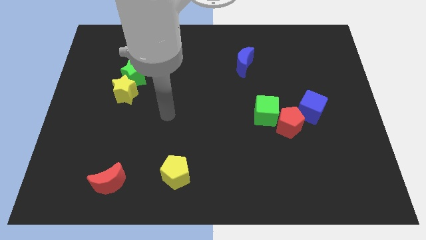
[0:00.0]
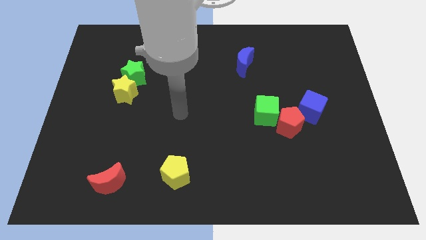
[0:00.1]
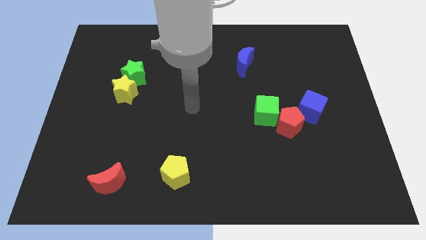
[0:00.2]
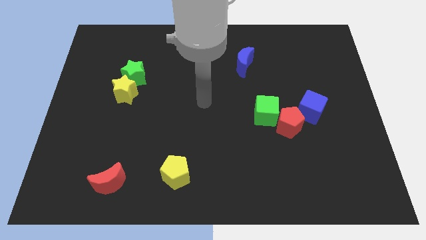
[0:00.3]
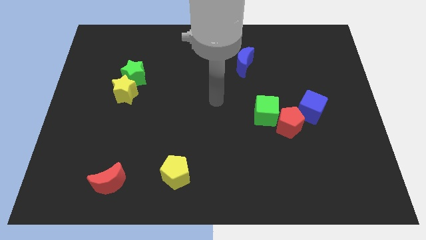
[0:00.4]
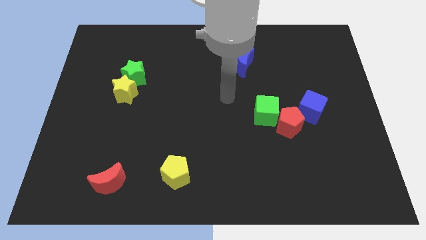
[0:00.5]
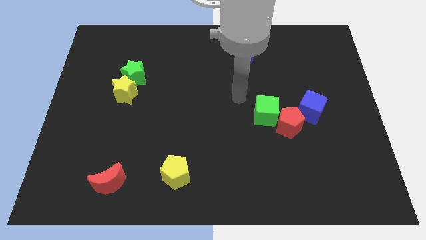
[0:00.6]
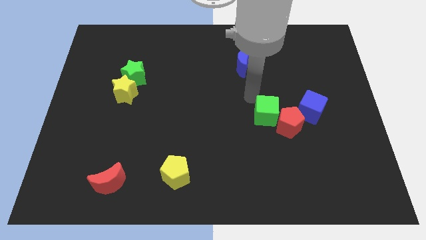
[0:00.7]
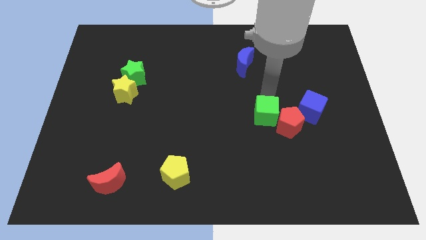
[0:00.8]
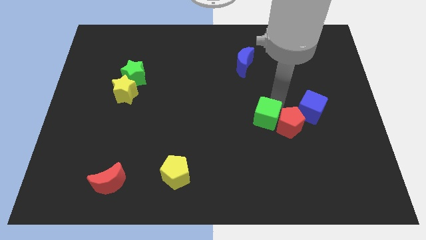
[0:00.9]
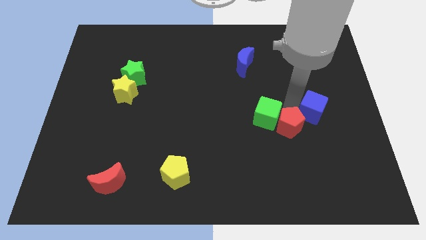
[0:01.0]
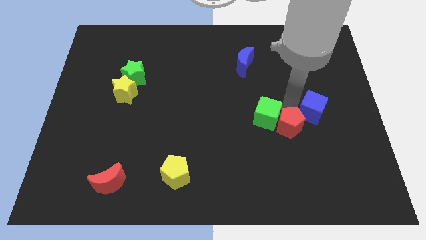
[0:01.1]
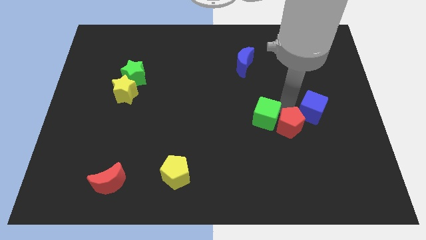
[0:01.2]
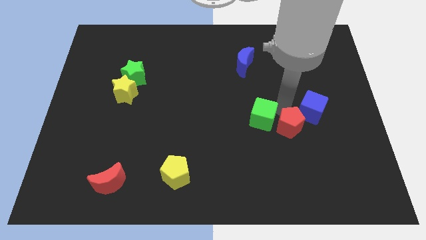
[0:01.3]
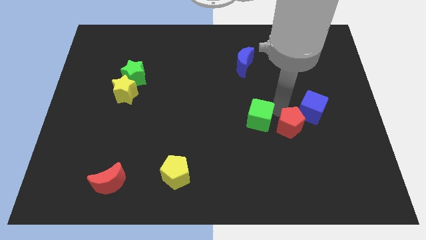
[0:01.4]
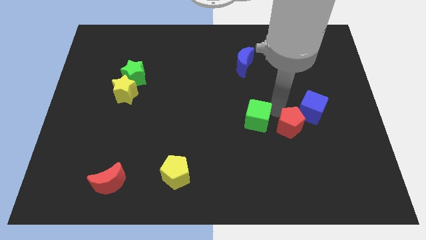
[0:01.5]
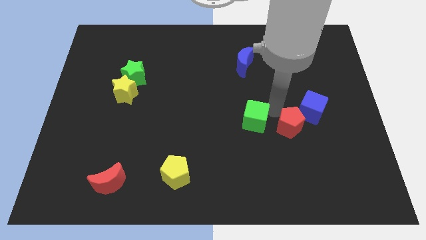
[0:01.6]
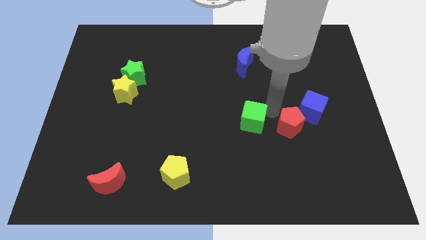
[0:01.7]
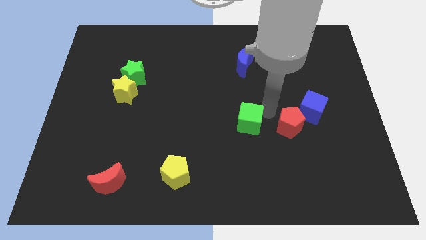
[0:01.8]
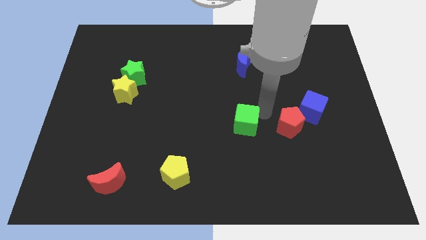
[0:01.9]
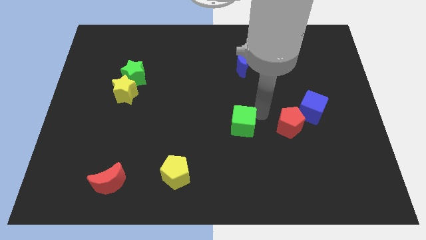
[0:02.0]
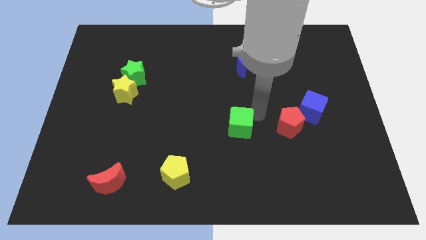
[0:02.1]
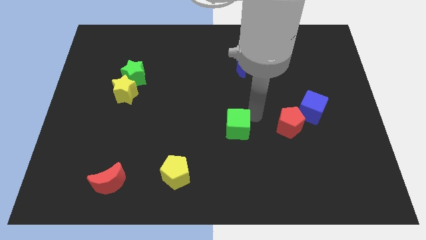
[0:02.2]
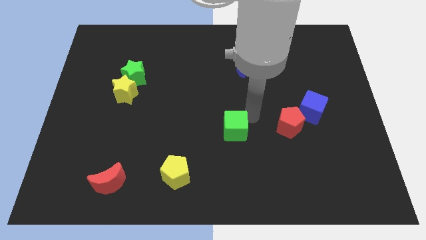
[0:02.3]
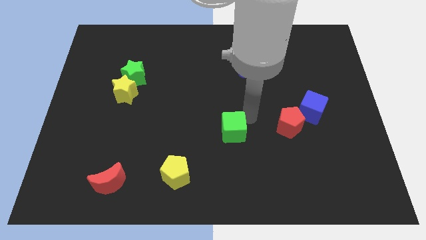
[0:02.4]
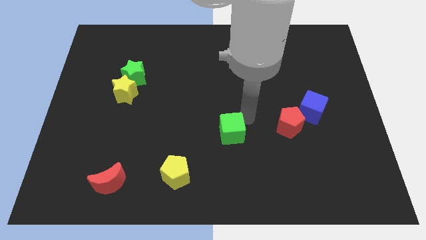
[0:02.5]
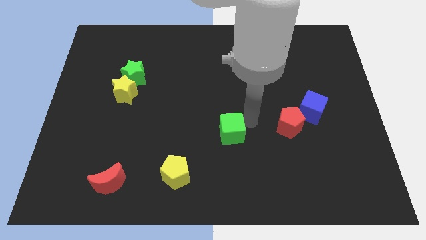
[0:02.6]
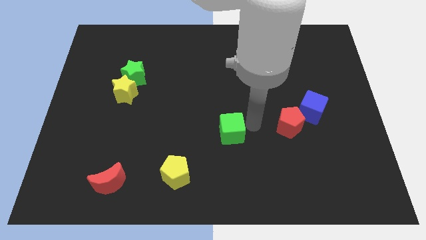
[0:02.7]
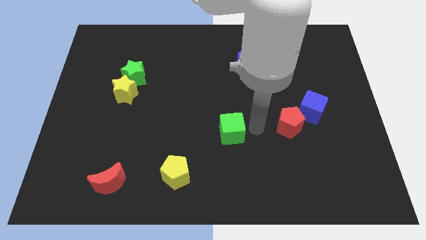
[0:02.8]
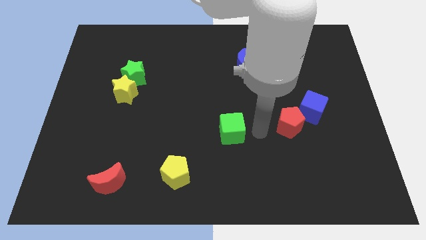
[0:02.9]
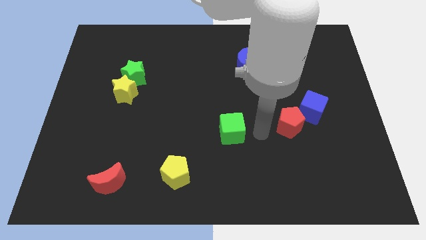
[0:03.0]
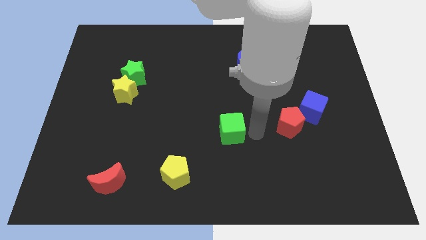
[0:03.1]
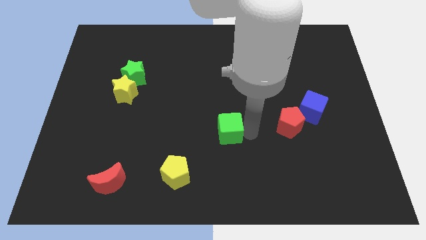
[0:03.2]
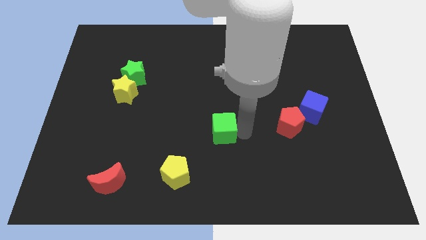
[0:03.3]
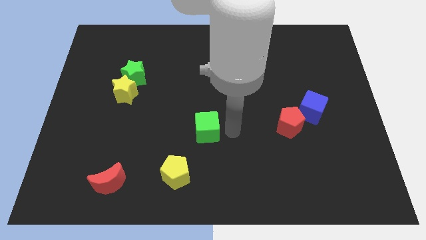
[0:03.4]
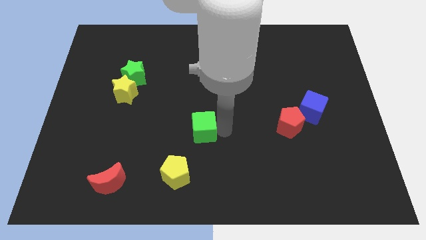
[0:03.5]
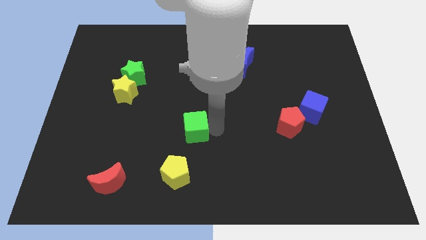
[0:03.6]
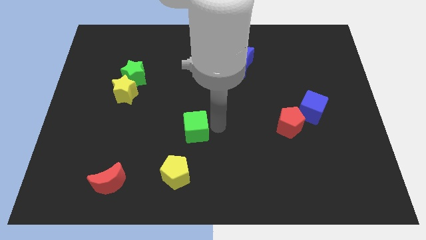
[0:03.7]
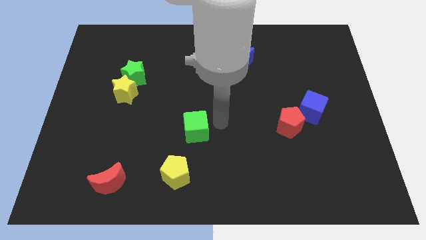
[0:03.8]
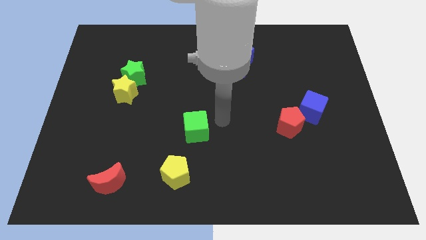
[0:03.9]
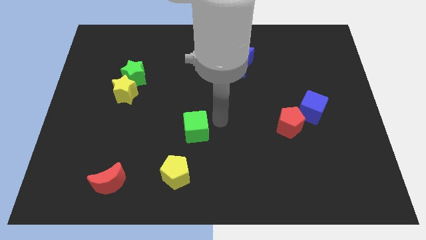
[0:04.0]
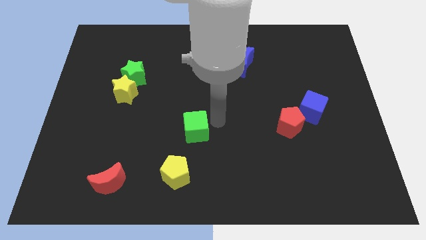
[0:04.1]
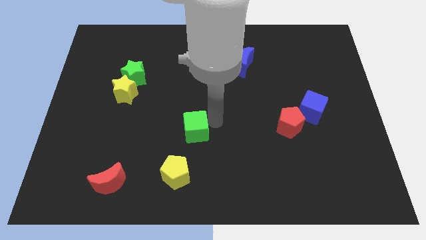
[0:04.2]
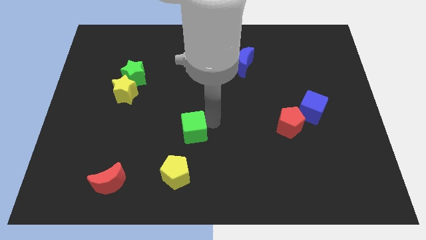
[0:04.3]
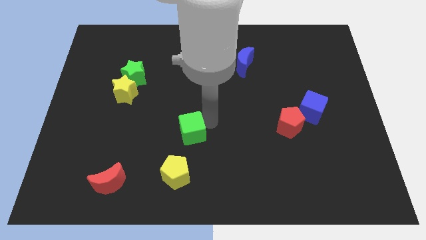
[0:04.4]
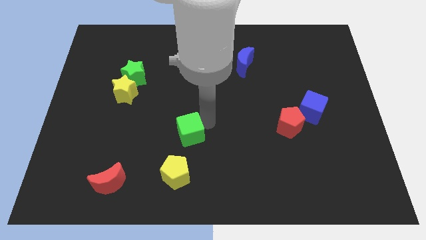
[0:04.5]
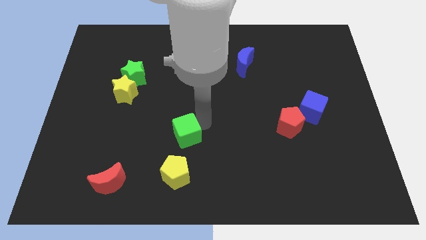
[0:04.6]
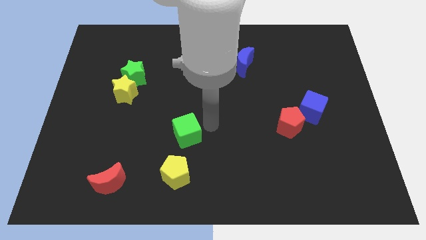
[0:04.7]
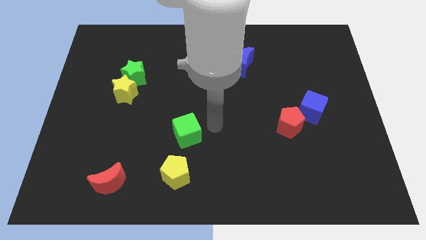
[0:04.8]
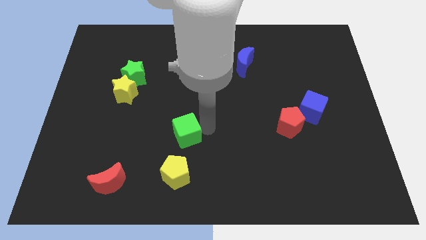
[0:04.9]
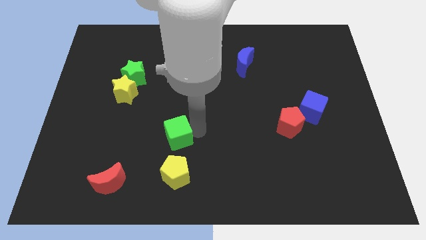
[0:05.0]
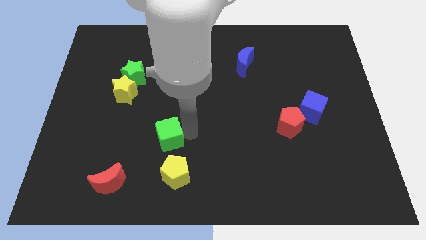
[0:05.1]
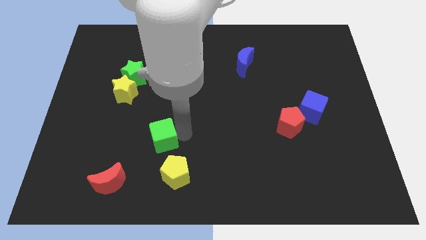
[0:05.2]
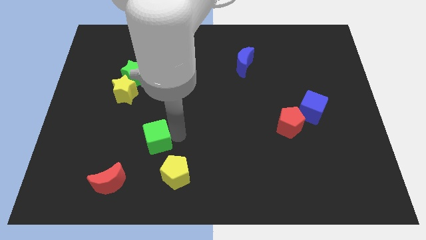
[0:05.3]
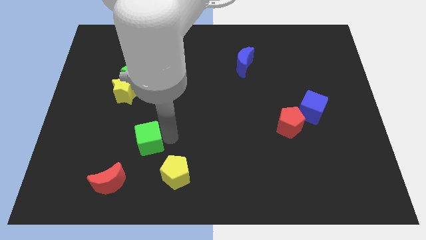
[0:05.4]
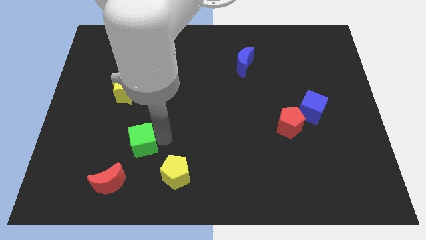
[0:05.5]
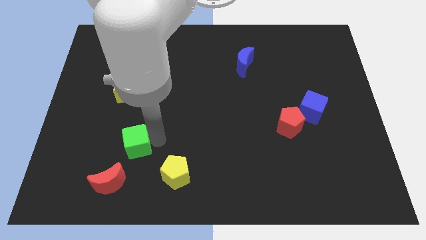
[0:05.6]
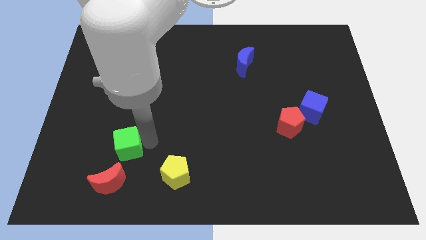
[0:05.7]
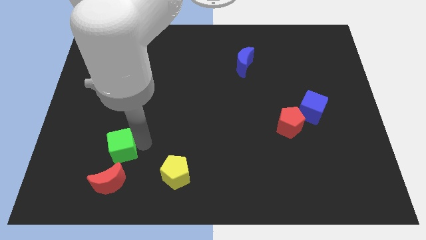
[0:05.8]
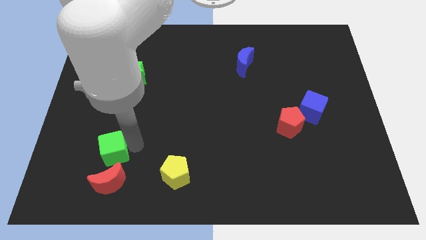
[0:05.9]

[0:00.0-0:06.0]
slide the green cube to the top left of the red moon

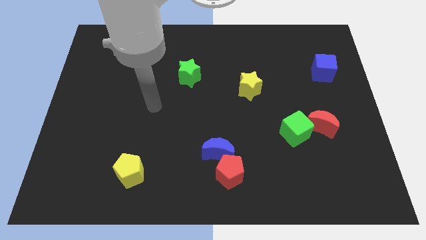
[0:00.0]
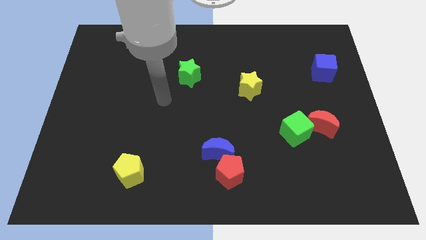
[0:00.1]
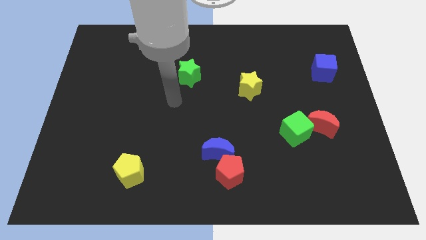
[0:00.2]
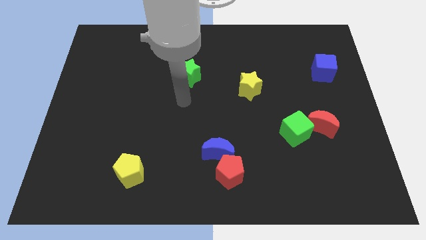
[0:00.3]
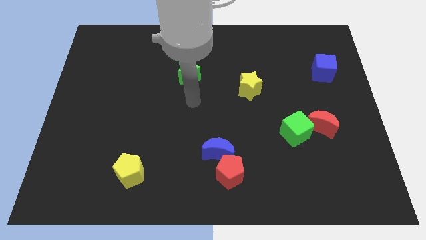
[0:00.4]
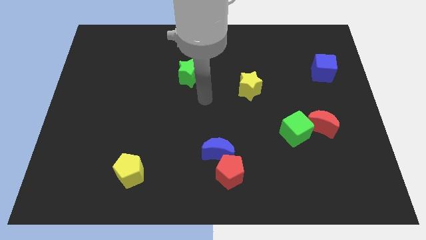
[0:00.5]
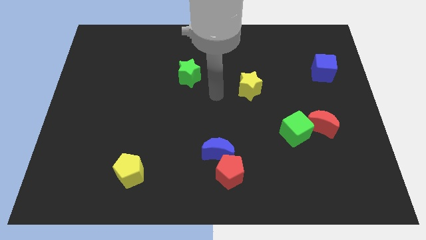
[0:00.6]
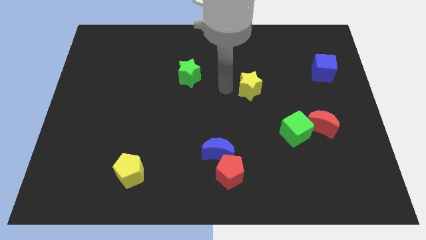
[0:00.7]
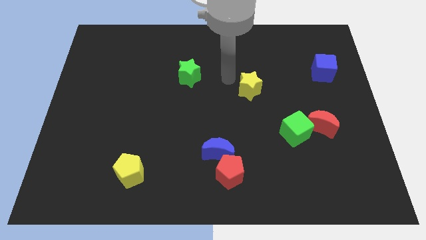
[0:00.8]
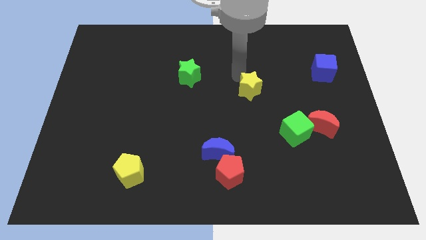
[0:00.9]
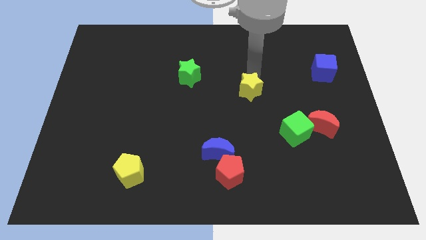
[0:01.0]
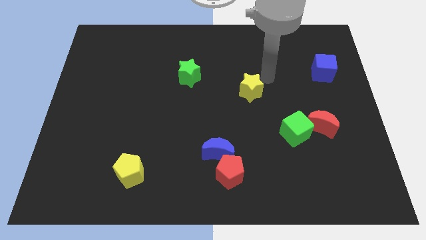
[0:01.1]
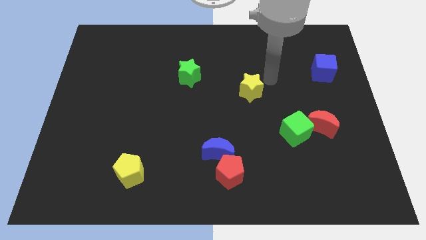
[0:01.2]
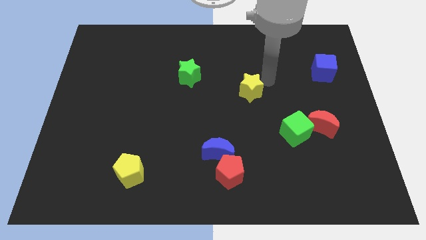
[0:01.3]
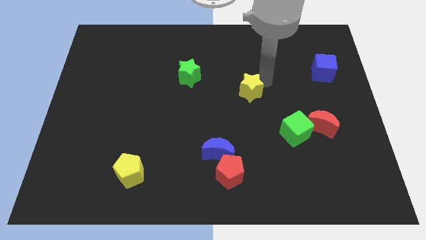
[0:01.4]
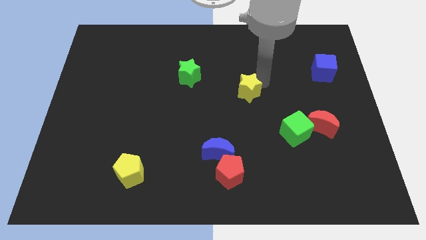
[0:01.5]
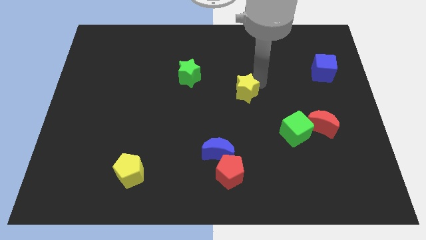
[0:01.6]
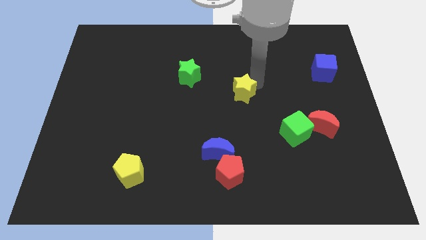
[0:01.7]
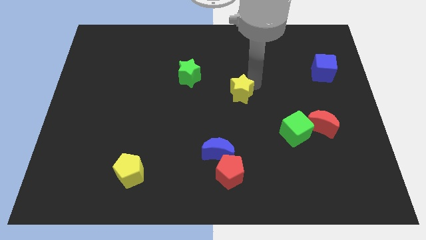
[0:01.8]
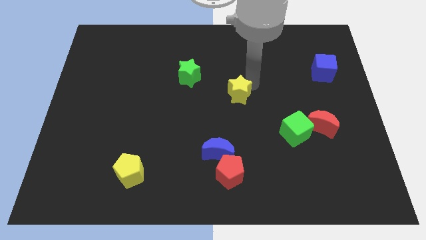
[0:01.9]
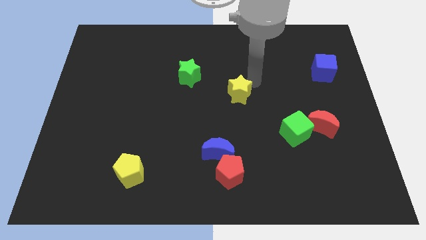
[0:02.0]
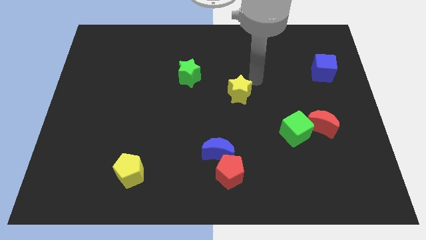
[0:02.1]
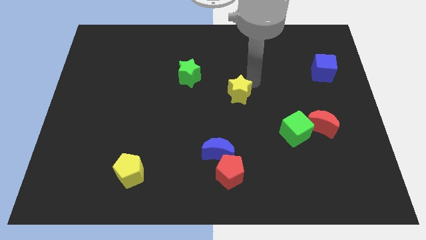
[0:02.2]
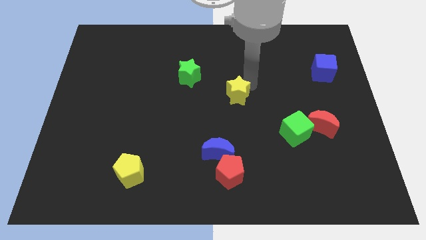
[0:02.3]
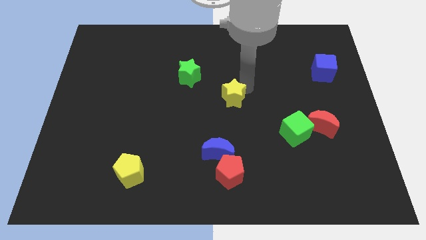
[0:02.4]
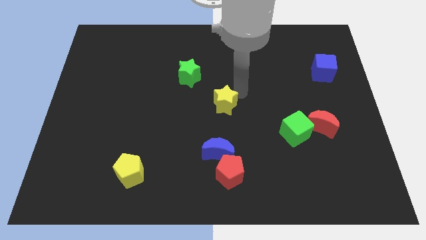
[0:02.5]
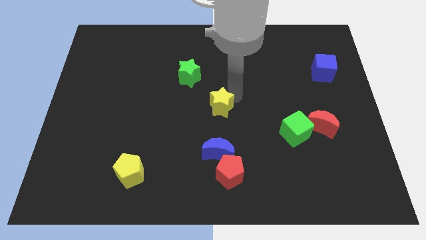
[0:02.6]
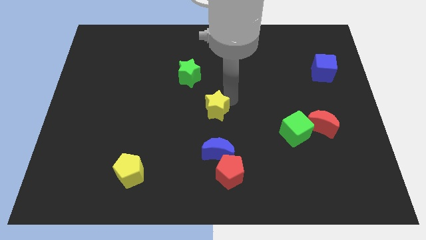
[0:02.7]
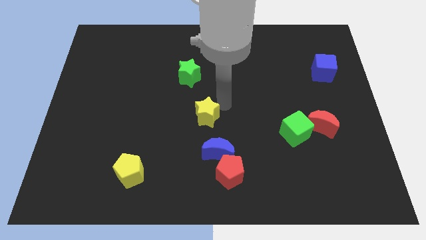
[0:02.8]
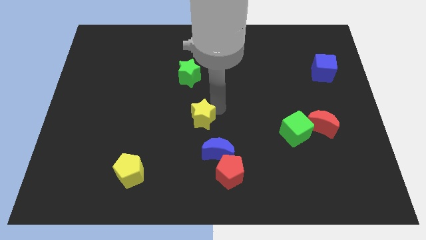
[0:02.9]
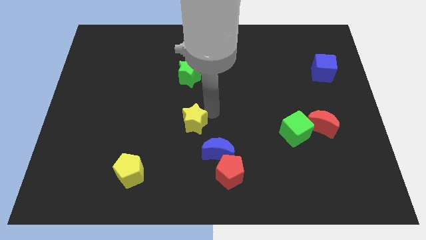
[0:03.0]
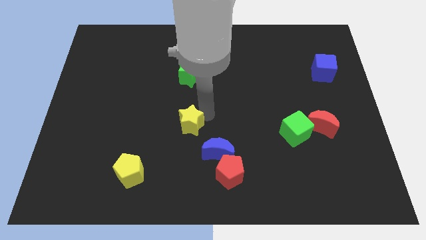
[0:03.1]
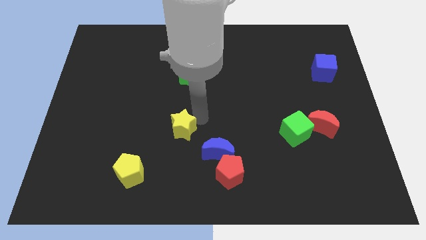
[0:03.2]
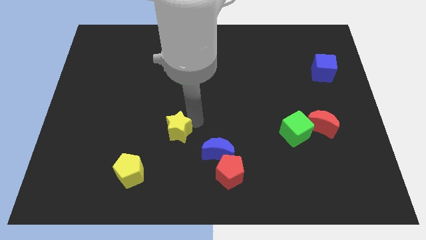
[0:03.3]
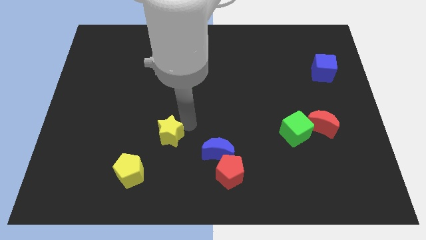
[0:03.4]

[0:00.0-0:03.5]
push the yellow star diagonally up and to the right of the yellow pentagon
